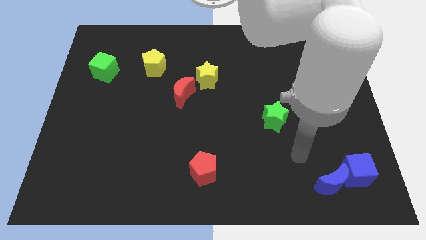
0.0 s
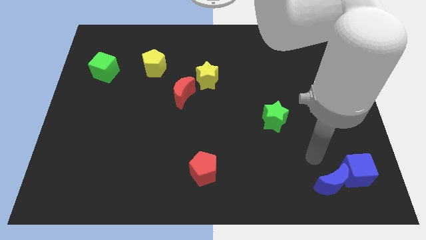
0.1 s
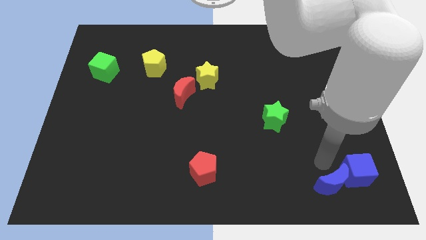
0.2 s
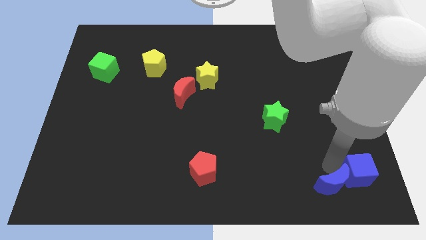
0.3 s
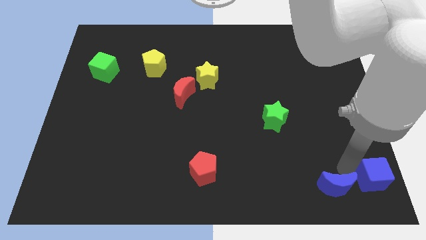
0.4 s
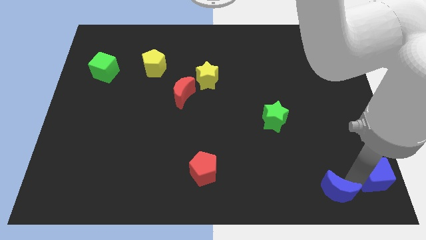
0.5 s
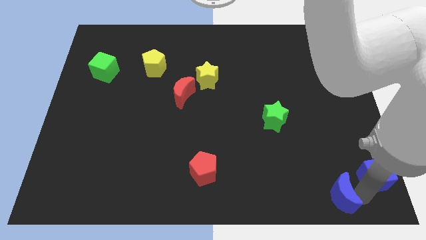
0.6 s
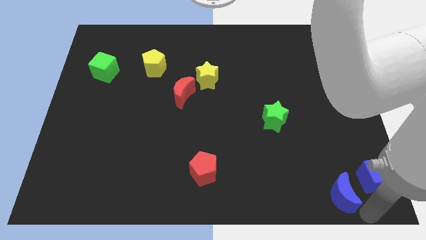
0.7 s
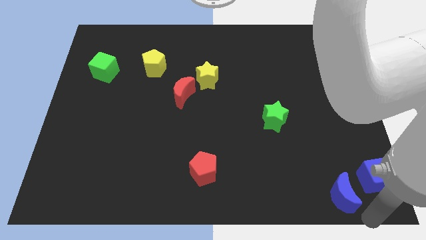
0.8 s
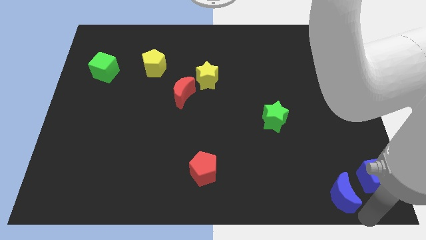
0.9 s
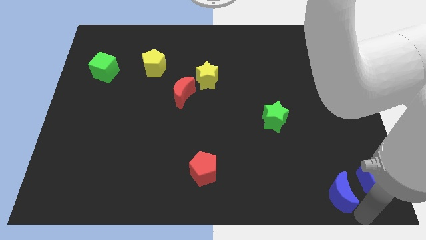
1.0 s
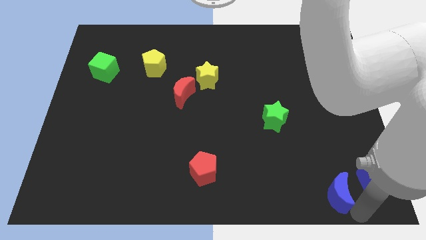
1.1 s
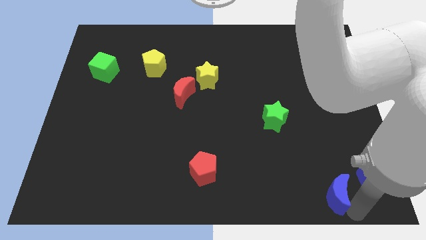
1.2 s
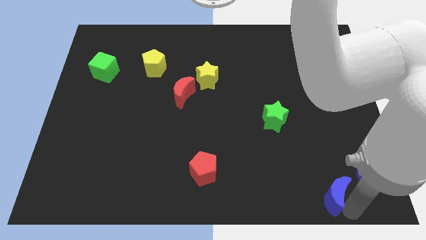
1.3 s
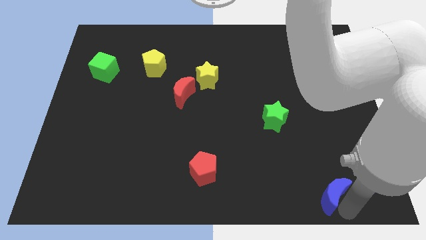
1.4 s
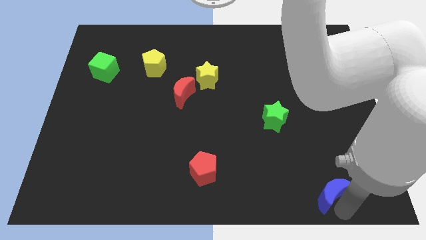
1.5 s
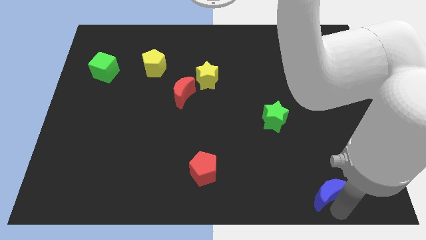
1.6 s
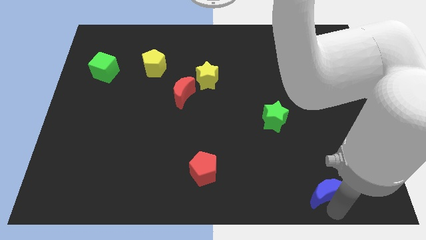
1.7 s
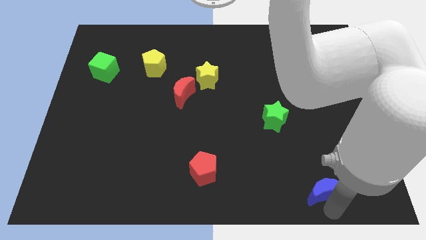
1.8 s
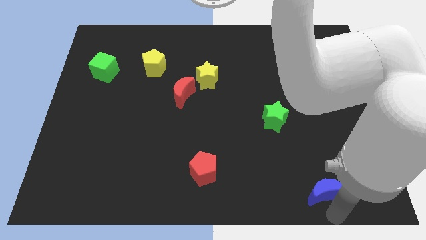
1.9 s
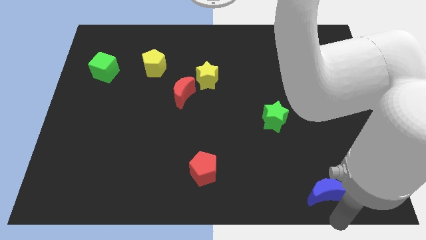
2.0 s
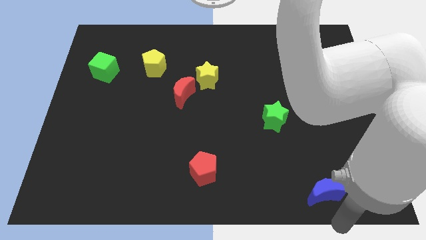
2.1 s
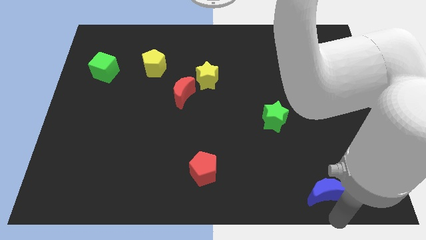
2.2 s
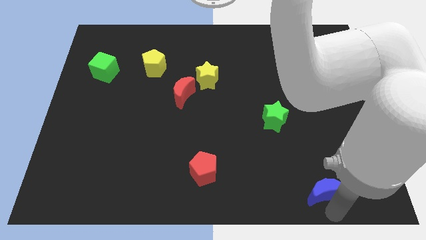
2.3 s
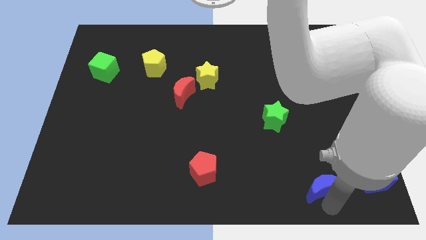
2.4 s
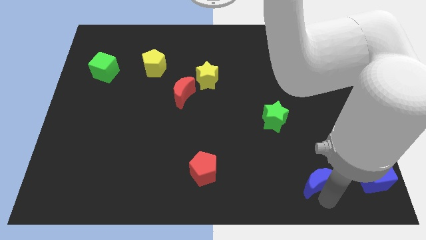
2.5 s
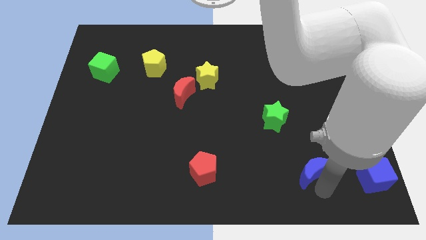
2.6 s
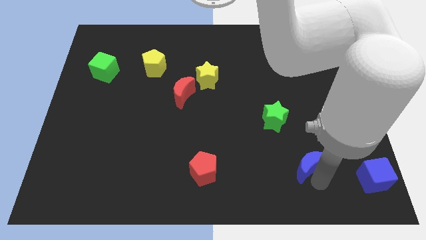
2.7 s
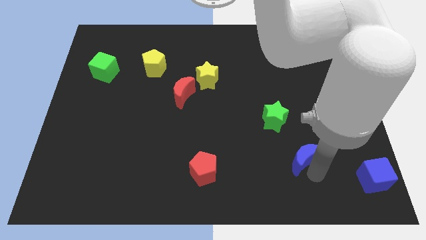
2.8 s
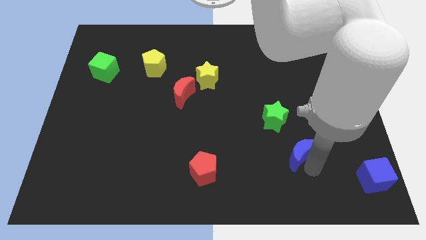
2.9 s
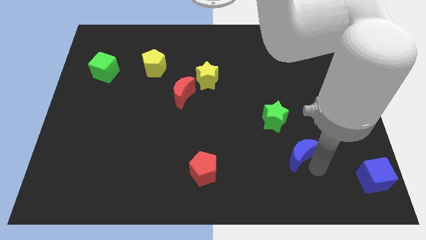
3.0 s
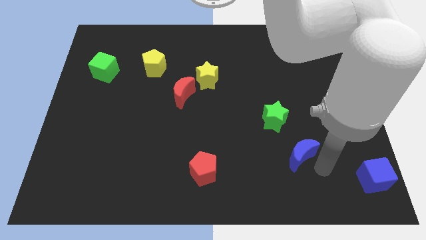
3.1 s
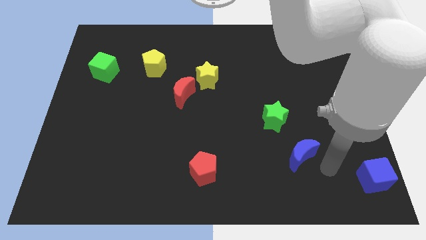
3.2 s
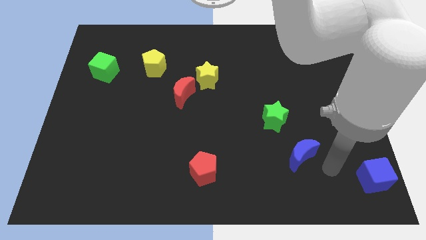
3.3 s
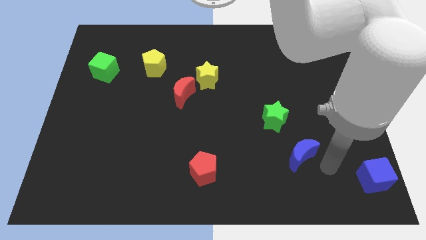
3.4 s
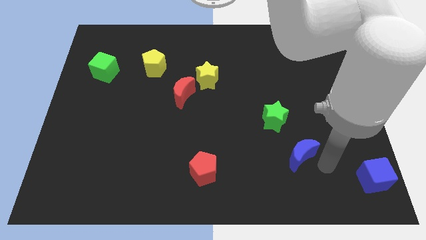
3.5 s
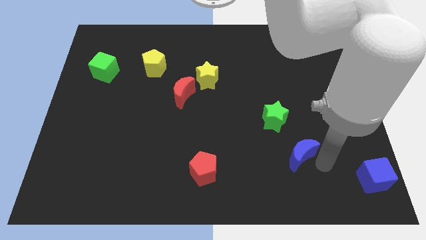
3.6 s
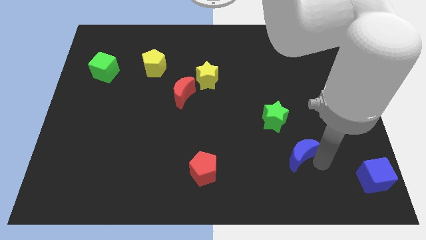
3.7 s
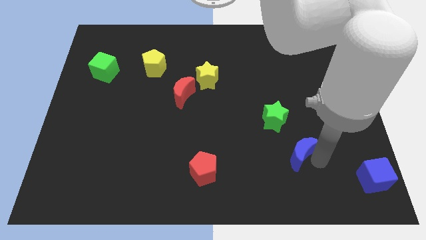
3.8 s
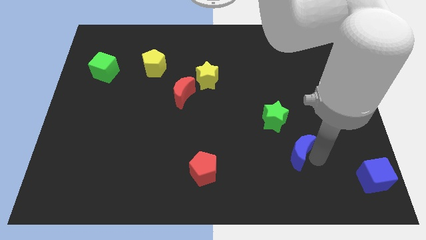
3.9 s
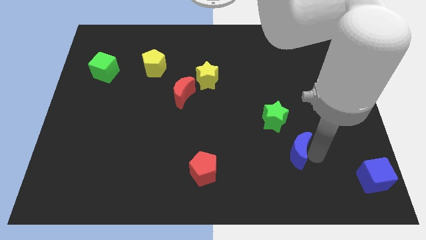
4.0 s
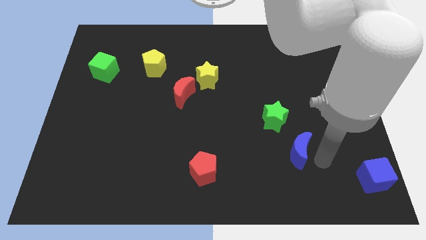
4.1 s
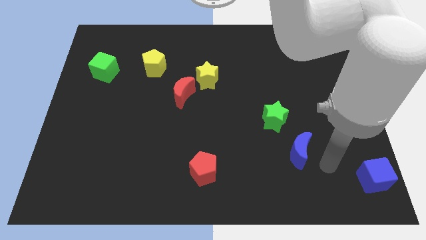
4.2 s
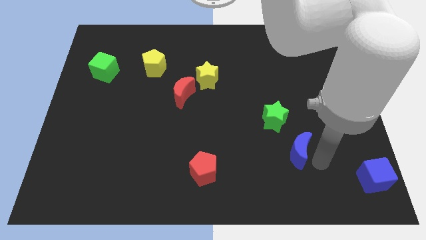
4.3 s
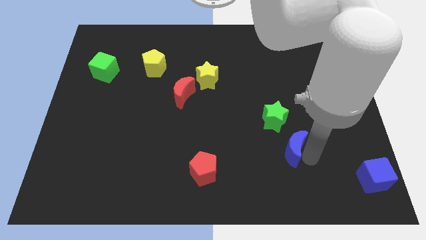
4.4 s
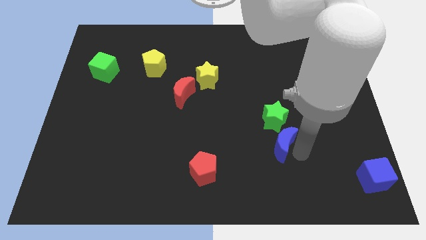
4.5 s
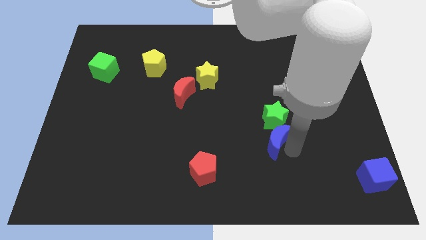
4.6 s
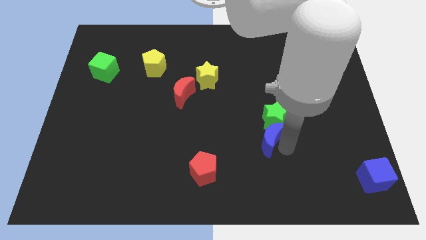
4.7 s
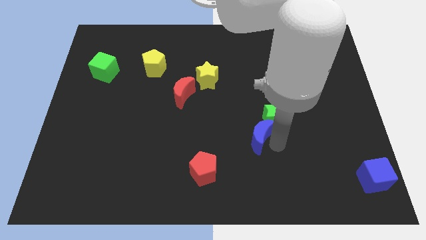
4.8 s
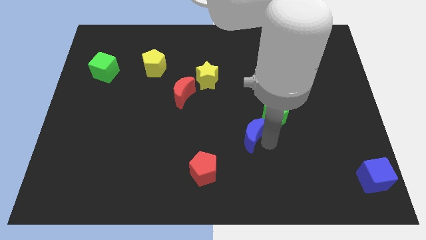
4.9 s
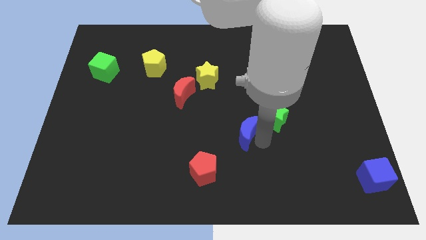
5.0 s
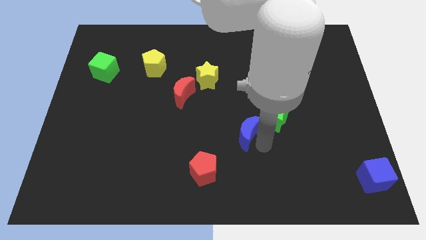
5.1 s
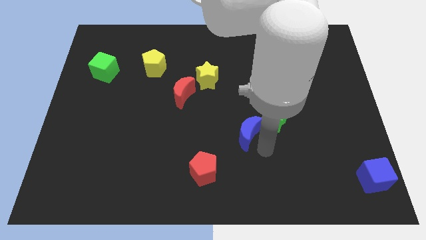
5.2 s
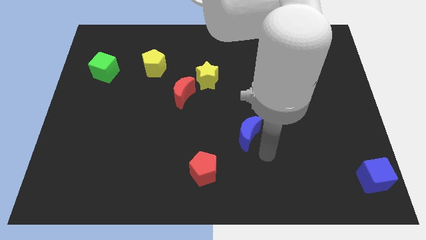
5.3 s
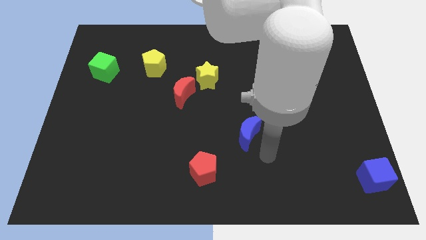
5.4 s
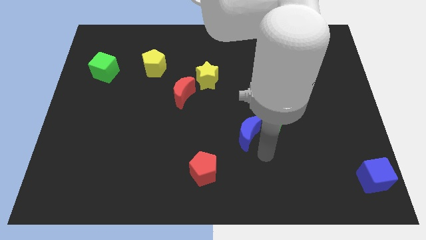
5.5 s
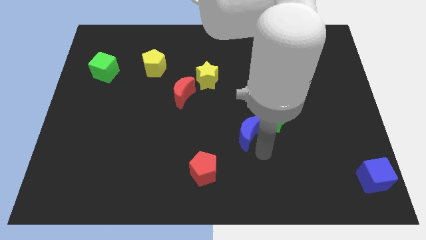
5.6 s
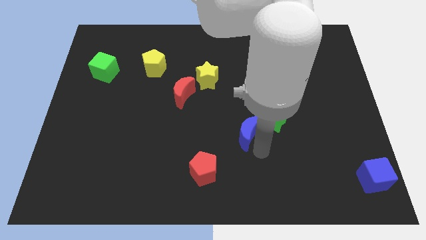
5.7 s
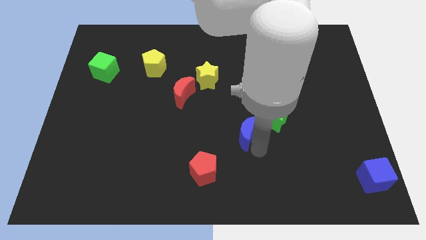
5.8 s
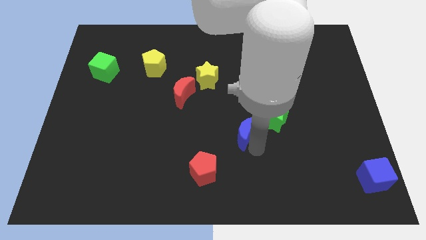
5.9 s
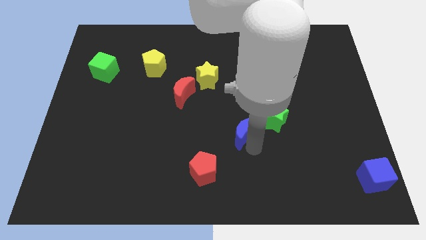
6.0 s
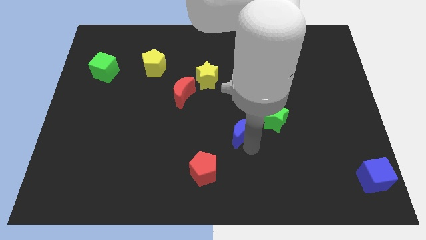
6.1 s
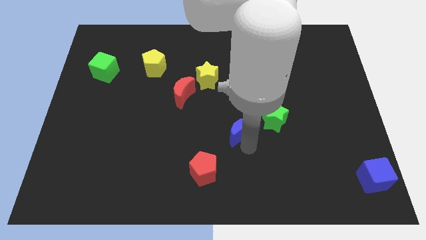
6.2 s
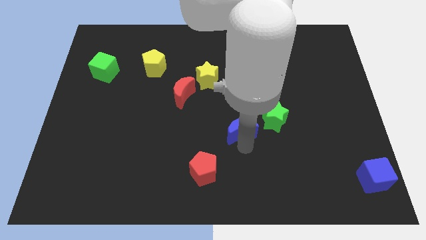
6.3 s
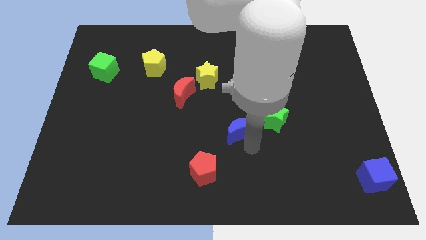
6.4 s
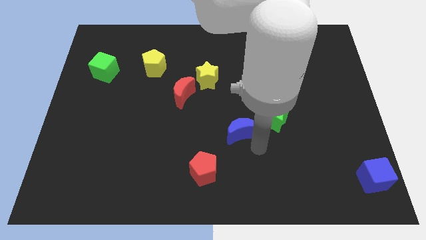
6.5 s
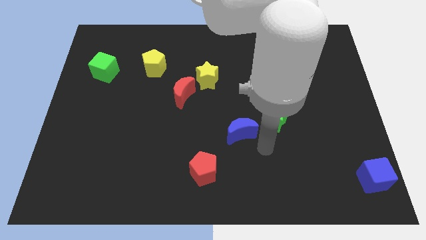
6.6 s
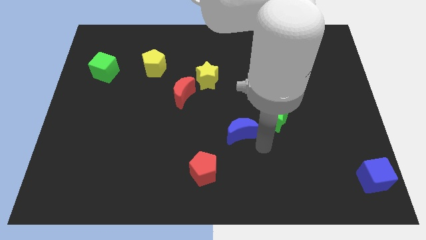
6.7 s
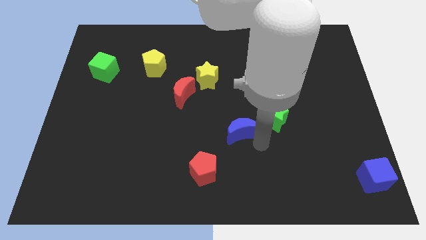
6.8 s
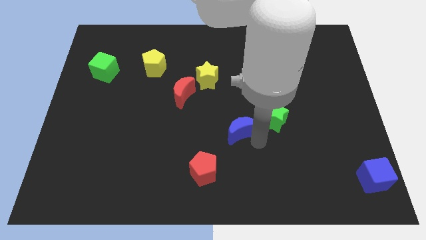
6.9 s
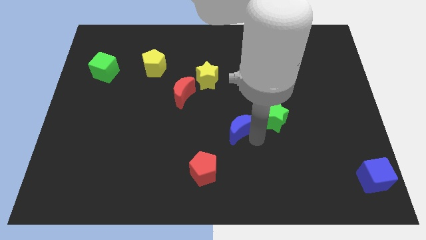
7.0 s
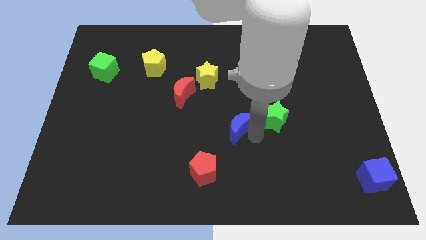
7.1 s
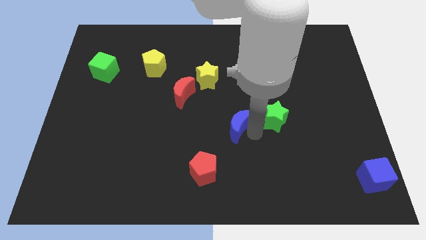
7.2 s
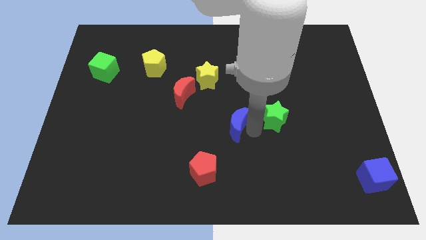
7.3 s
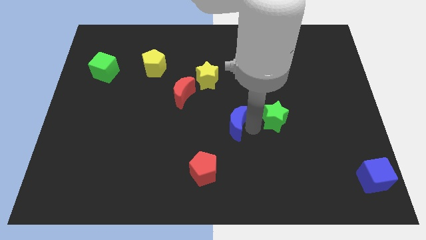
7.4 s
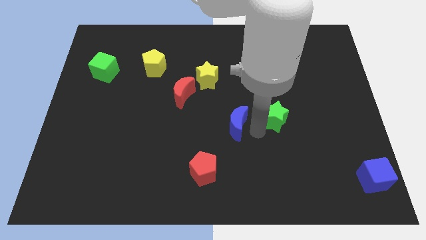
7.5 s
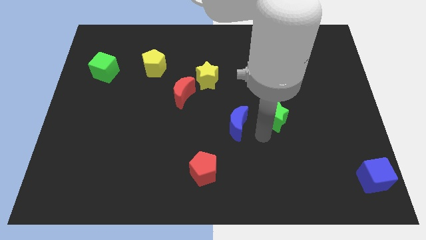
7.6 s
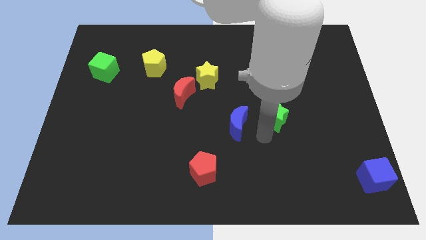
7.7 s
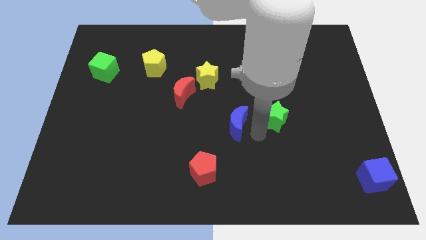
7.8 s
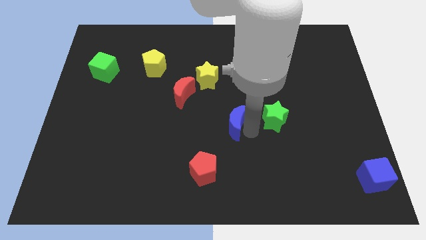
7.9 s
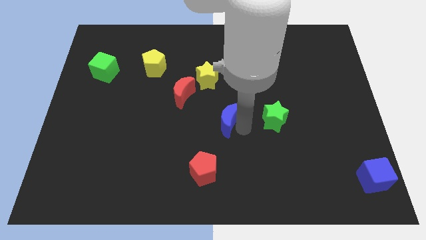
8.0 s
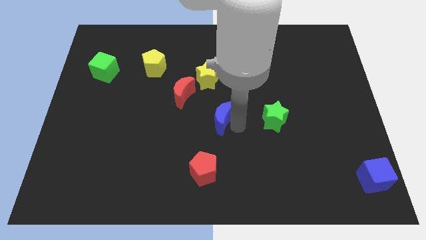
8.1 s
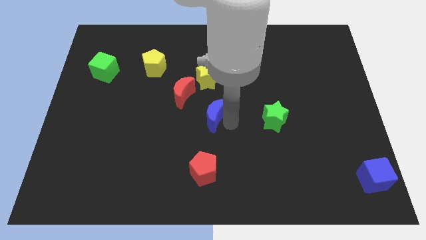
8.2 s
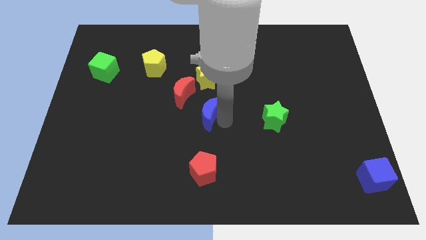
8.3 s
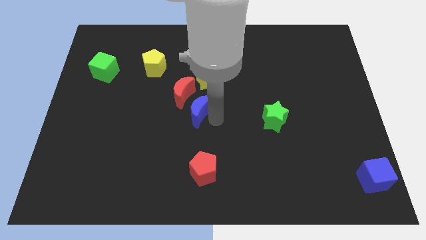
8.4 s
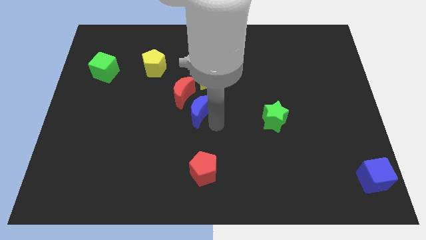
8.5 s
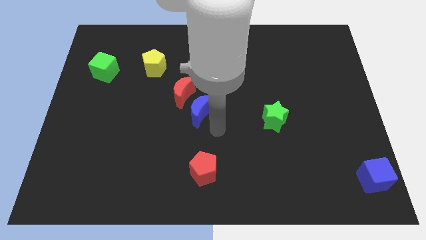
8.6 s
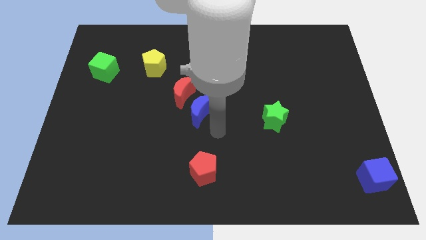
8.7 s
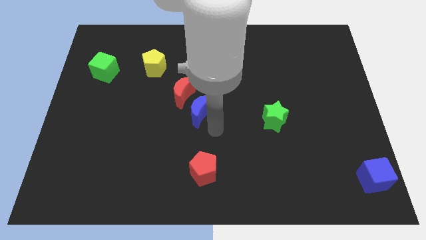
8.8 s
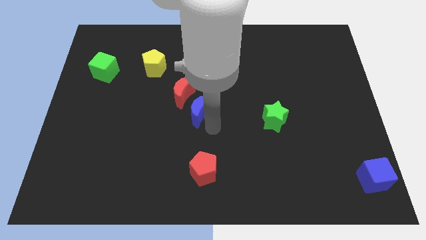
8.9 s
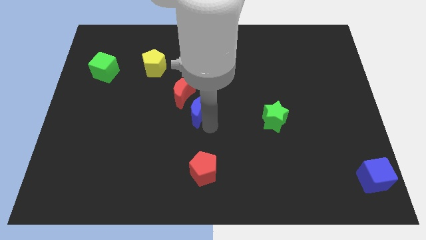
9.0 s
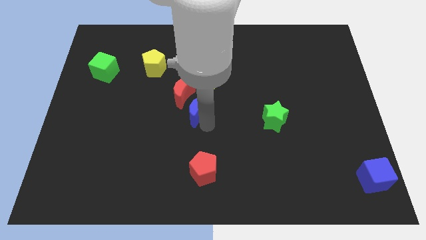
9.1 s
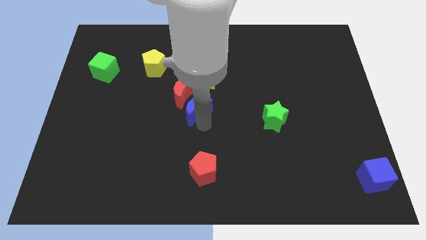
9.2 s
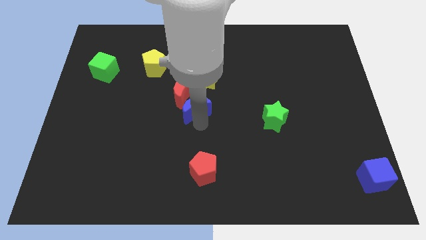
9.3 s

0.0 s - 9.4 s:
put the blue moon next to the red moon
